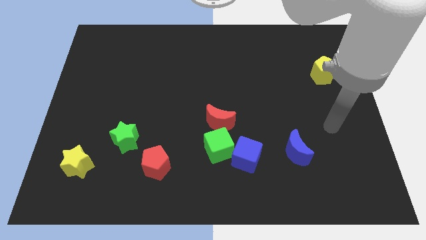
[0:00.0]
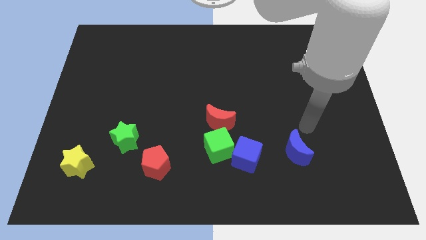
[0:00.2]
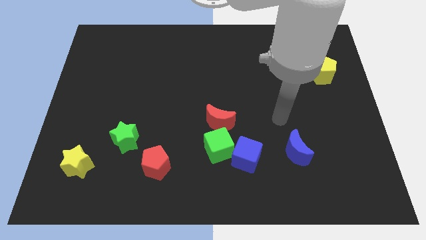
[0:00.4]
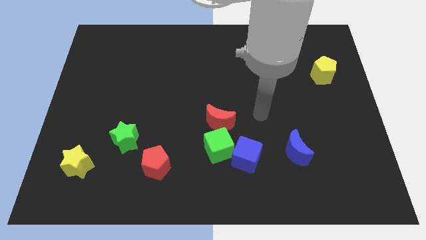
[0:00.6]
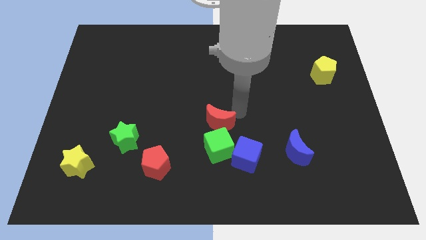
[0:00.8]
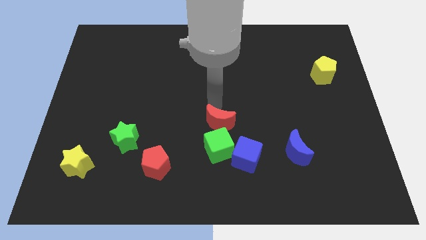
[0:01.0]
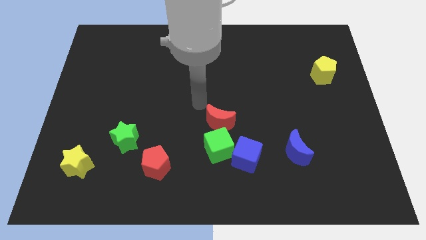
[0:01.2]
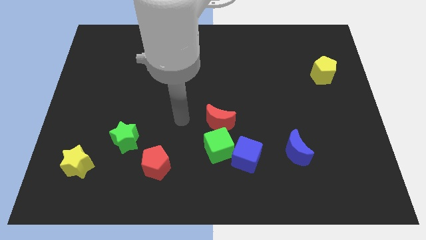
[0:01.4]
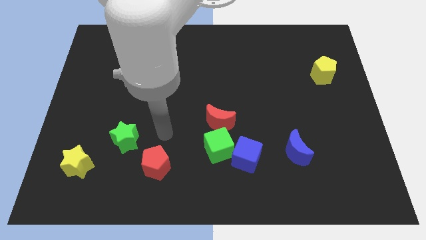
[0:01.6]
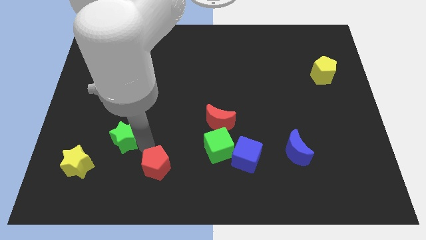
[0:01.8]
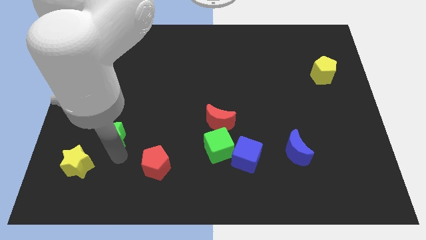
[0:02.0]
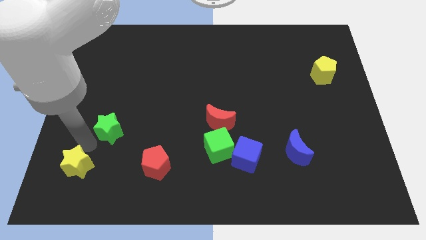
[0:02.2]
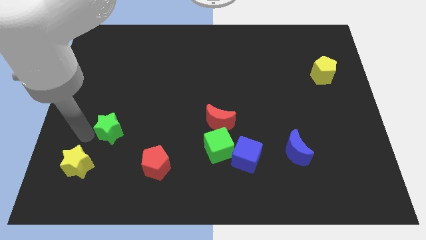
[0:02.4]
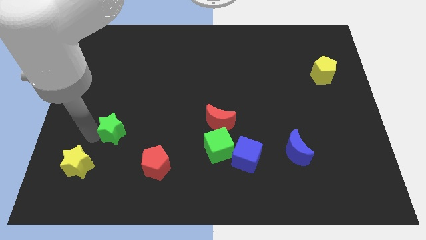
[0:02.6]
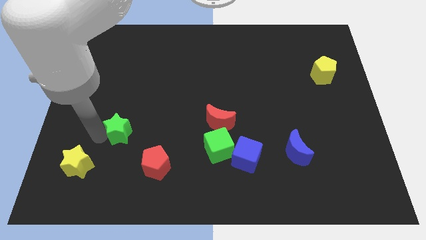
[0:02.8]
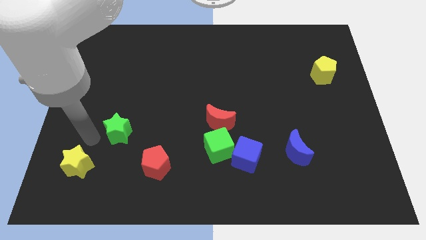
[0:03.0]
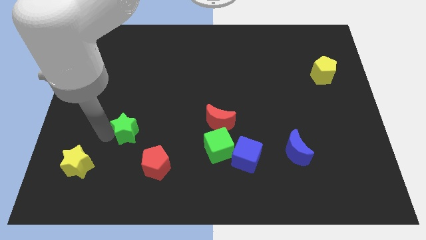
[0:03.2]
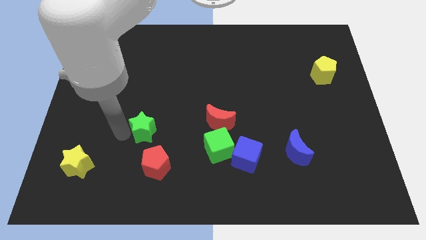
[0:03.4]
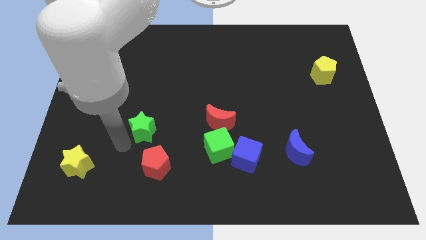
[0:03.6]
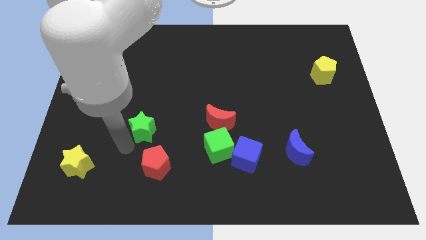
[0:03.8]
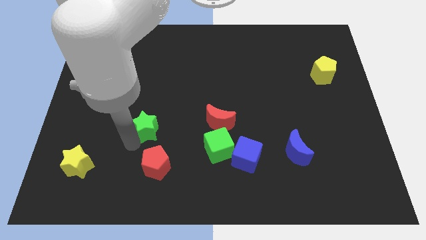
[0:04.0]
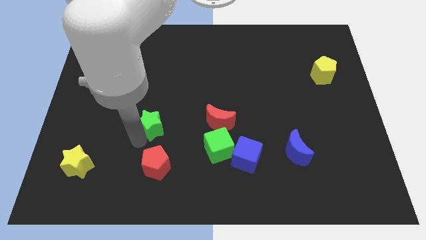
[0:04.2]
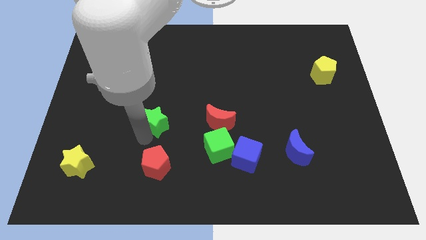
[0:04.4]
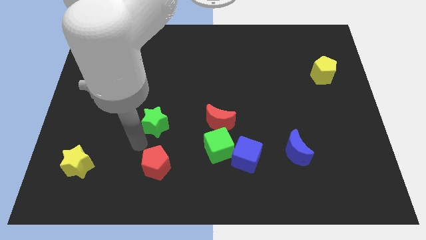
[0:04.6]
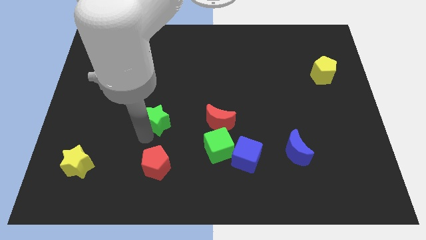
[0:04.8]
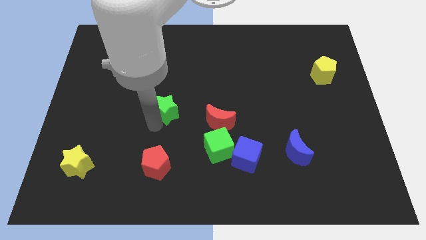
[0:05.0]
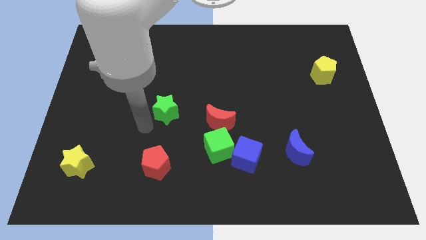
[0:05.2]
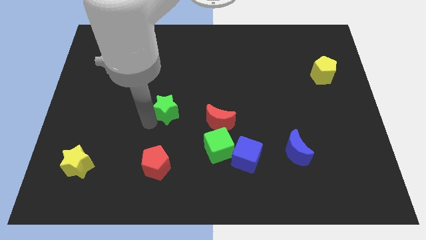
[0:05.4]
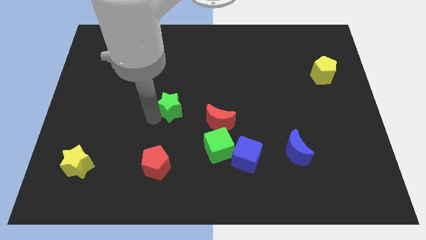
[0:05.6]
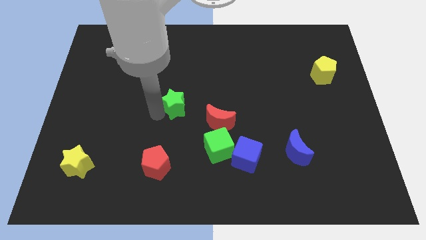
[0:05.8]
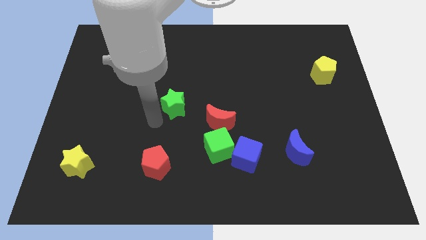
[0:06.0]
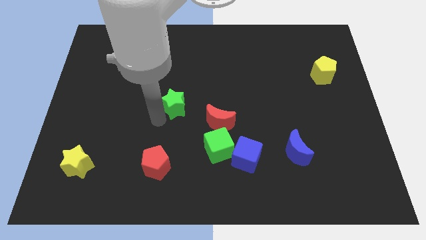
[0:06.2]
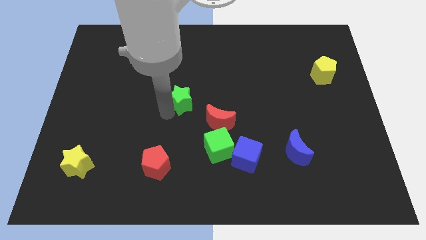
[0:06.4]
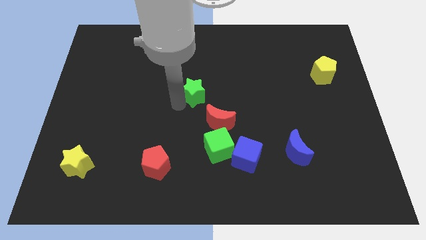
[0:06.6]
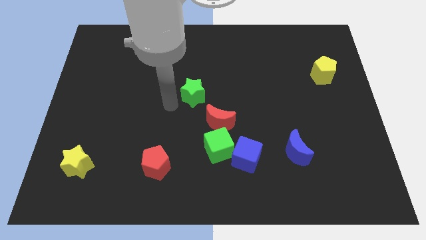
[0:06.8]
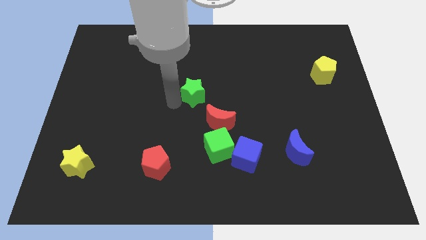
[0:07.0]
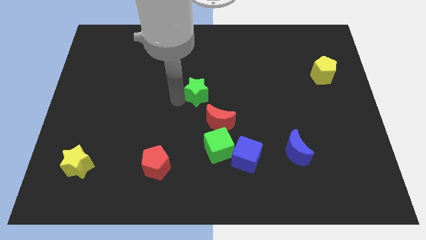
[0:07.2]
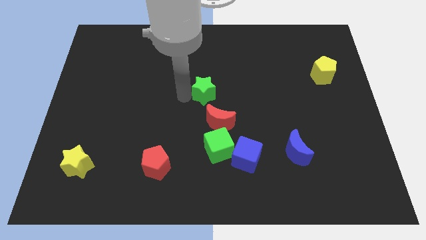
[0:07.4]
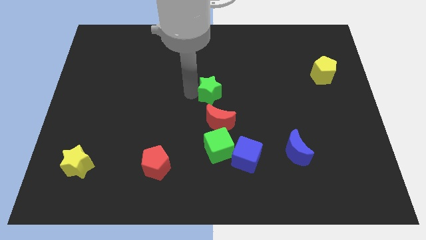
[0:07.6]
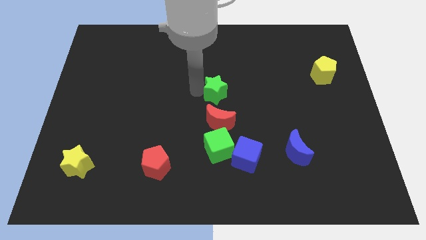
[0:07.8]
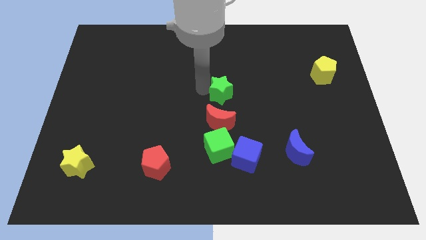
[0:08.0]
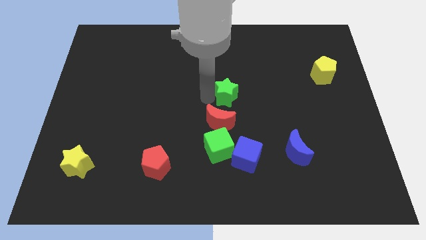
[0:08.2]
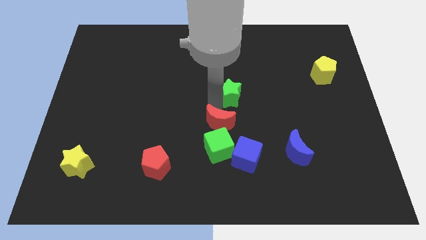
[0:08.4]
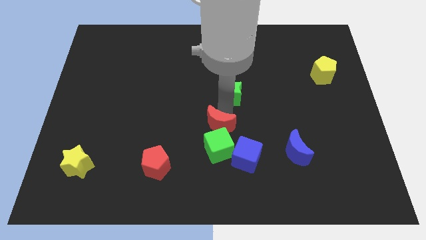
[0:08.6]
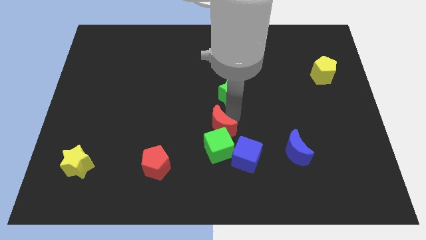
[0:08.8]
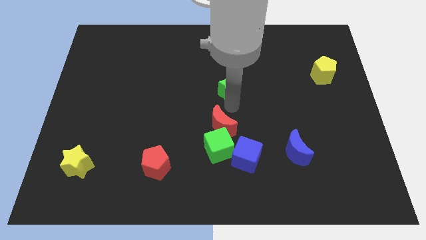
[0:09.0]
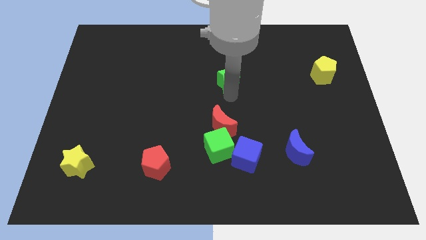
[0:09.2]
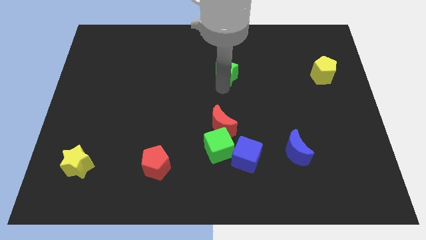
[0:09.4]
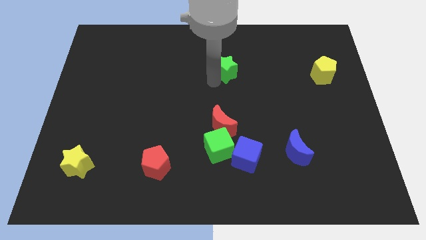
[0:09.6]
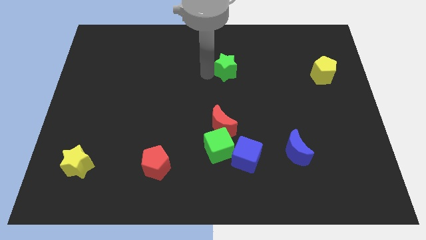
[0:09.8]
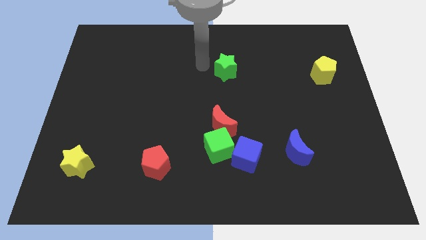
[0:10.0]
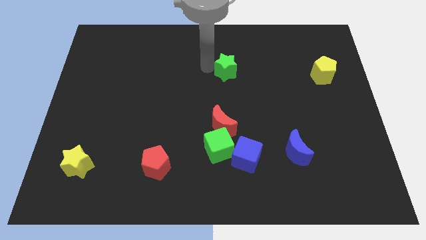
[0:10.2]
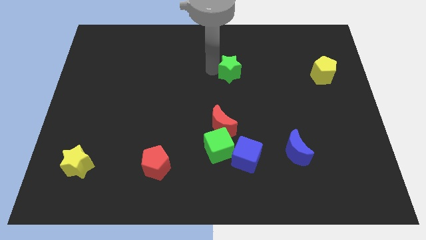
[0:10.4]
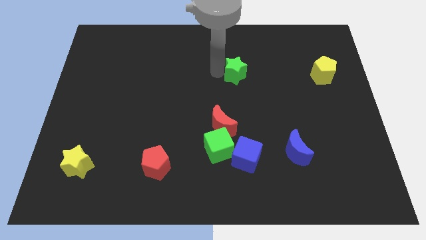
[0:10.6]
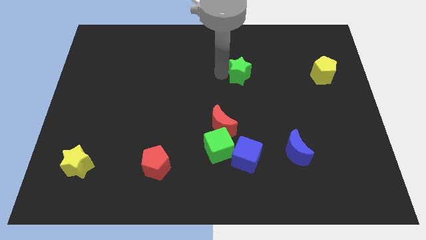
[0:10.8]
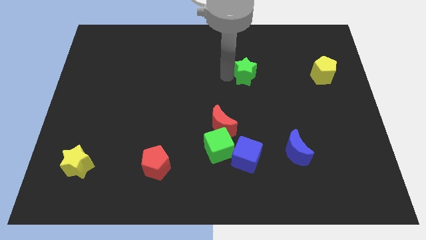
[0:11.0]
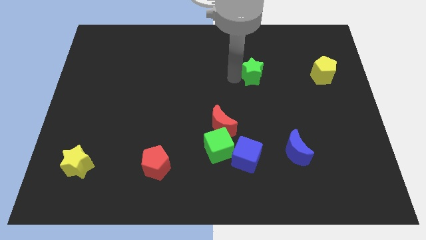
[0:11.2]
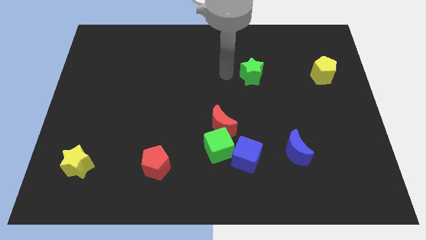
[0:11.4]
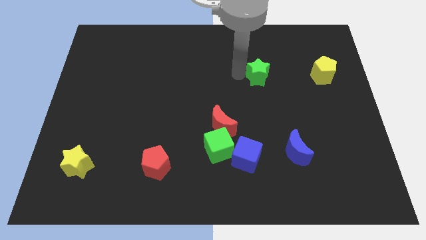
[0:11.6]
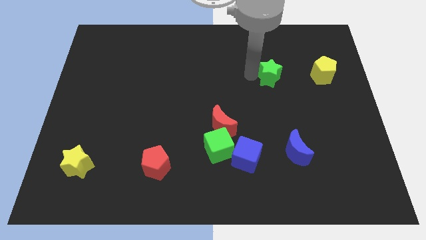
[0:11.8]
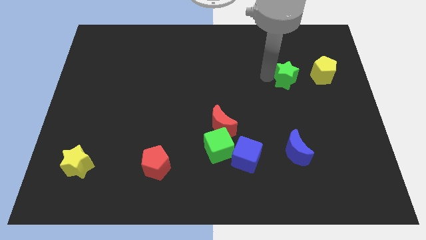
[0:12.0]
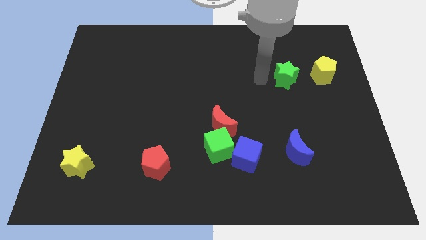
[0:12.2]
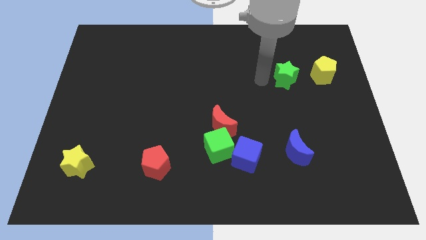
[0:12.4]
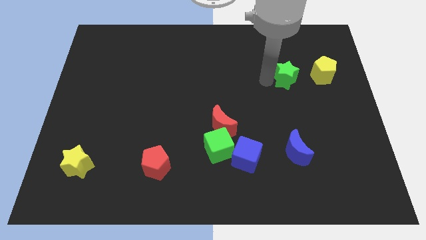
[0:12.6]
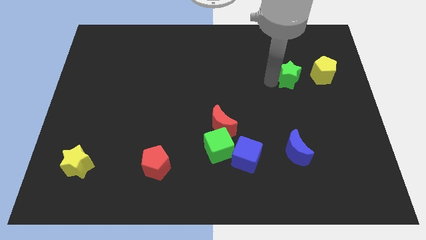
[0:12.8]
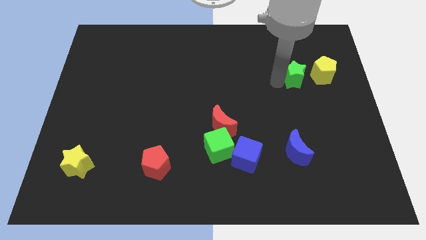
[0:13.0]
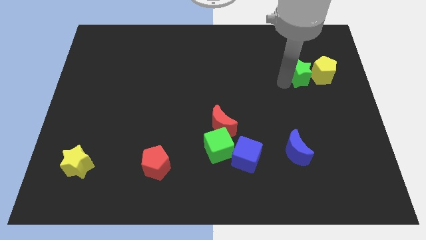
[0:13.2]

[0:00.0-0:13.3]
push the green star towards the yellow pentagon
